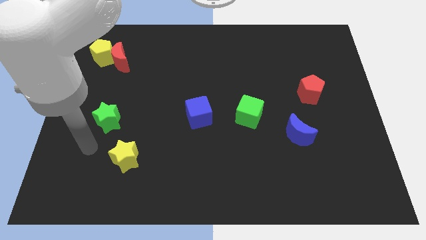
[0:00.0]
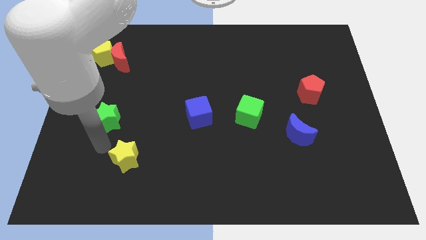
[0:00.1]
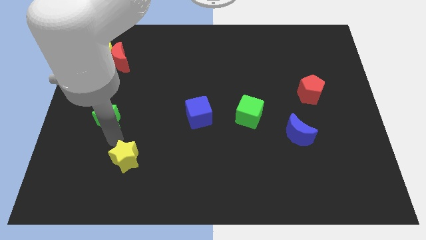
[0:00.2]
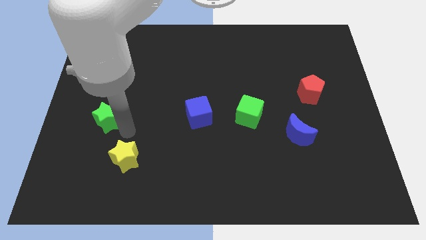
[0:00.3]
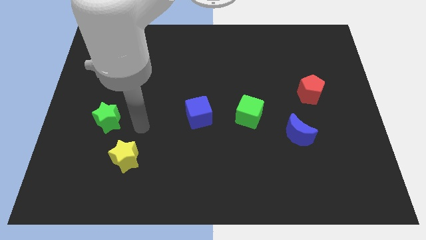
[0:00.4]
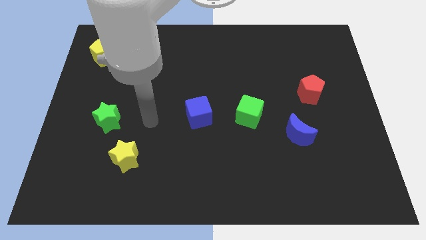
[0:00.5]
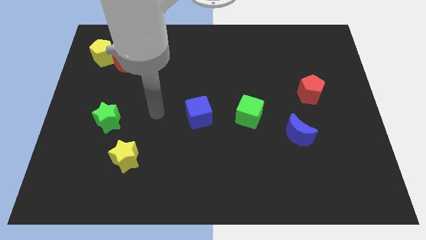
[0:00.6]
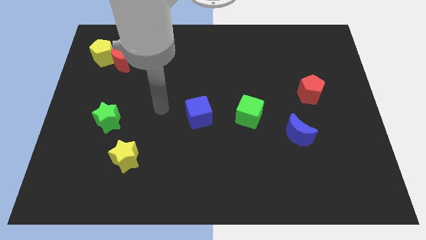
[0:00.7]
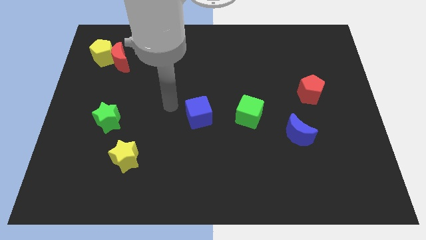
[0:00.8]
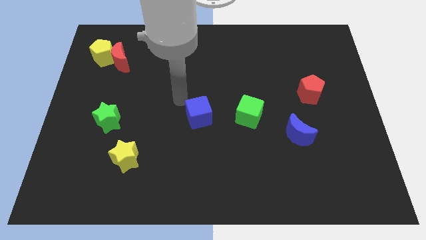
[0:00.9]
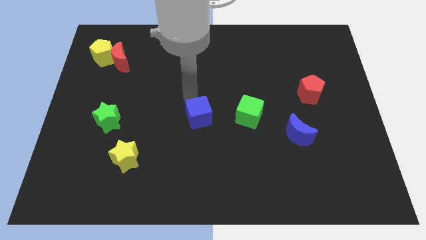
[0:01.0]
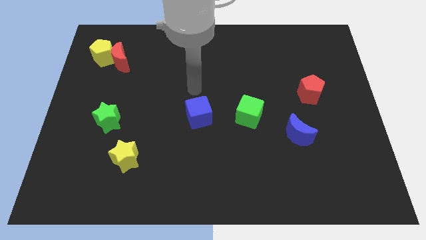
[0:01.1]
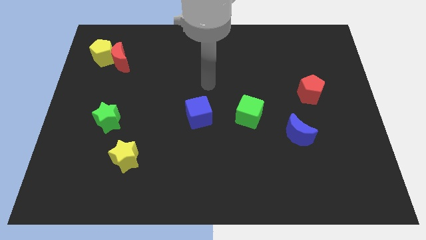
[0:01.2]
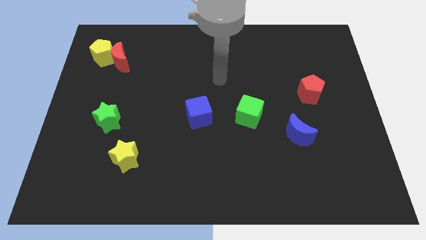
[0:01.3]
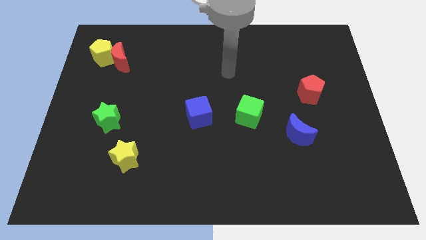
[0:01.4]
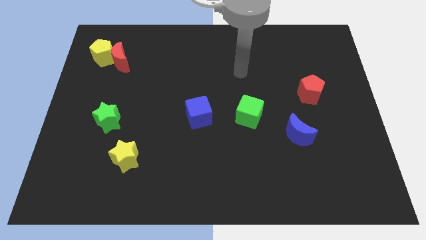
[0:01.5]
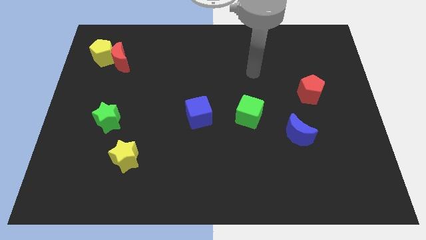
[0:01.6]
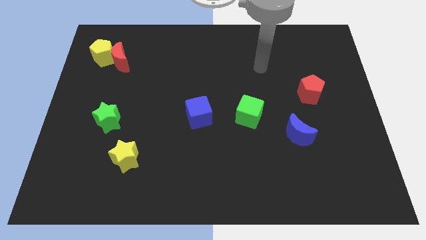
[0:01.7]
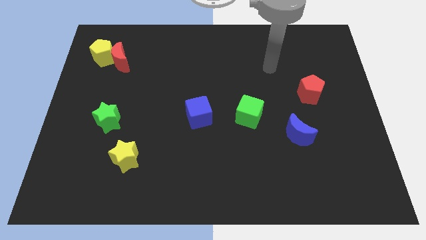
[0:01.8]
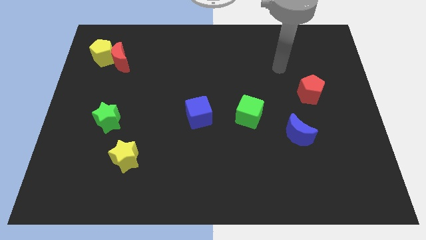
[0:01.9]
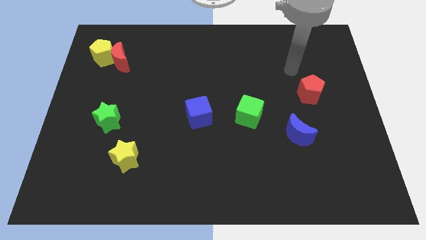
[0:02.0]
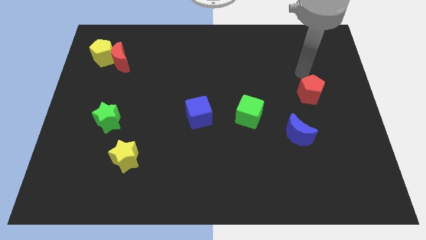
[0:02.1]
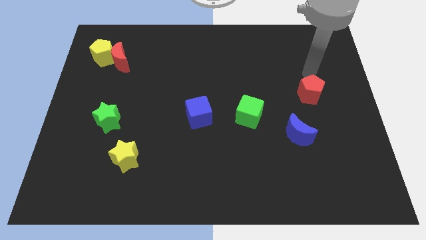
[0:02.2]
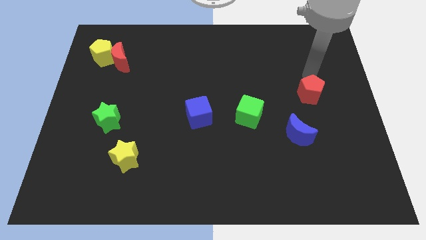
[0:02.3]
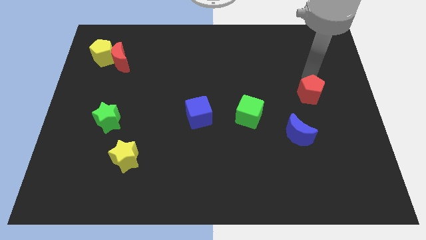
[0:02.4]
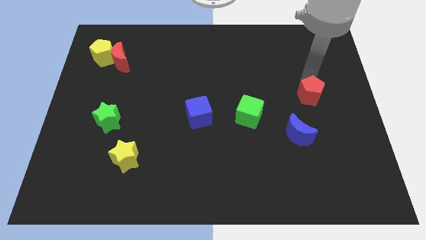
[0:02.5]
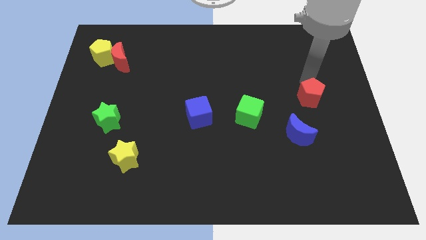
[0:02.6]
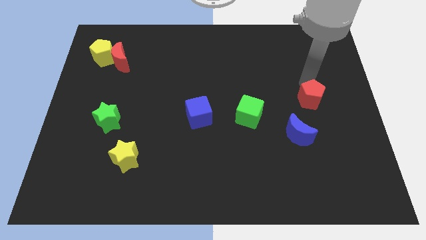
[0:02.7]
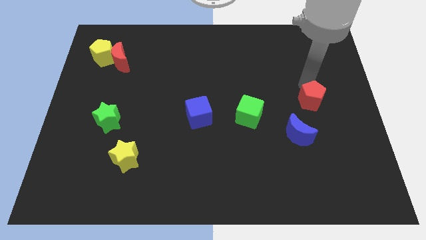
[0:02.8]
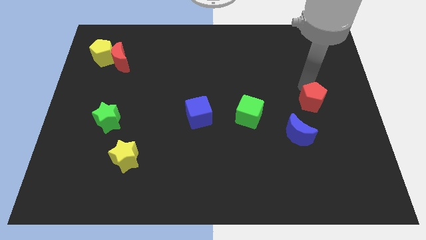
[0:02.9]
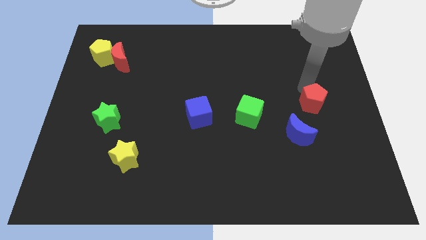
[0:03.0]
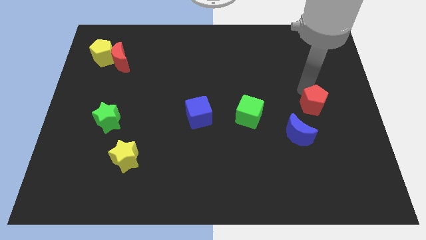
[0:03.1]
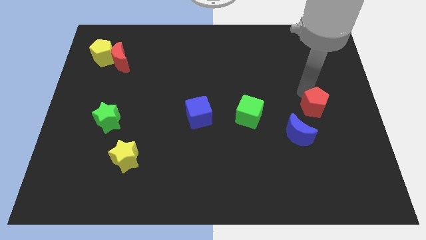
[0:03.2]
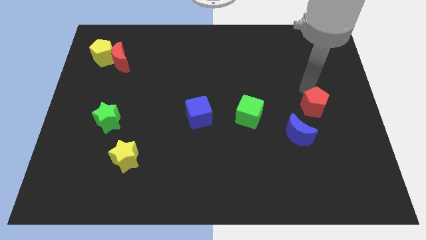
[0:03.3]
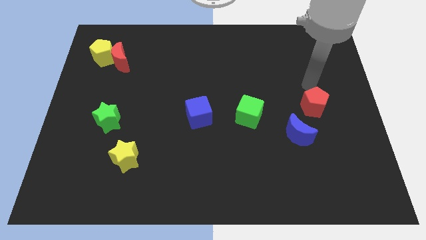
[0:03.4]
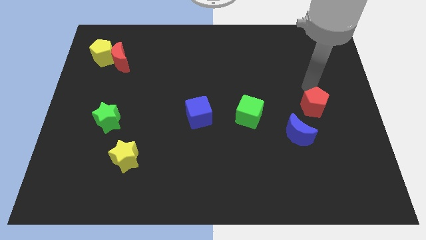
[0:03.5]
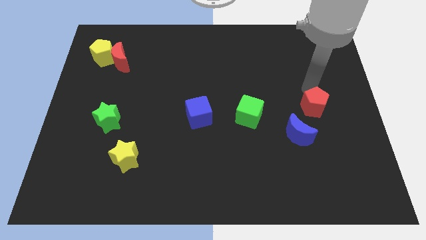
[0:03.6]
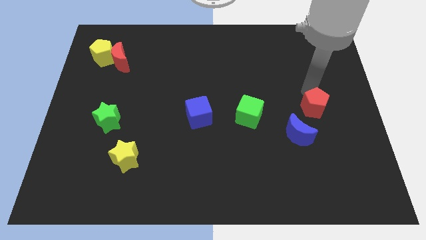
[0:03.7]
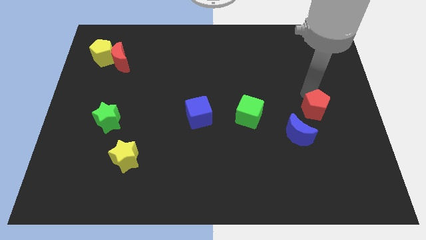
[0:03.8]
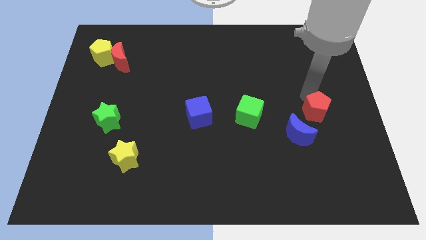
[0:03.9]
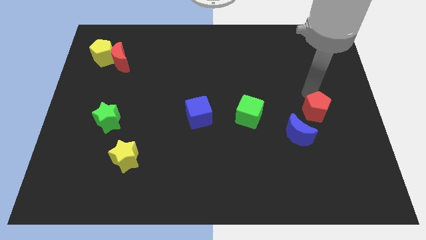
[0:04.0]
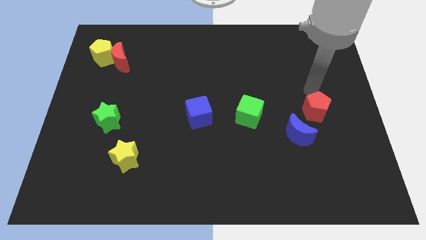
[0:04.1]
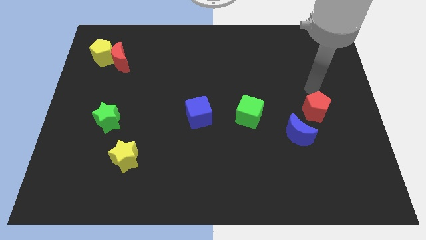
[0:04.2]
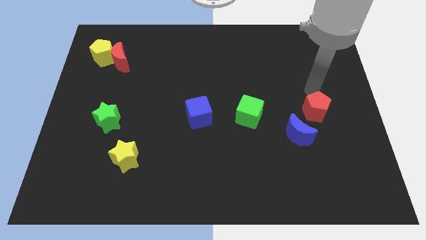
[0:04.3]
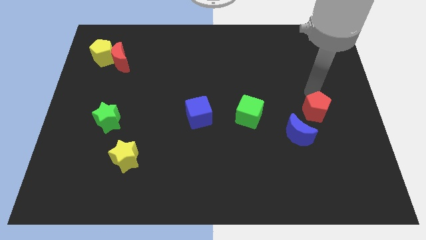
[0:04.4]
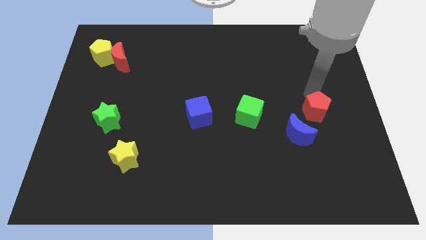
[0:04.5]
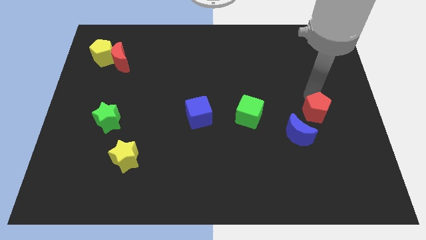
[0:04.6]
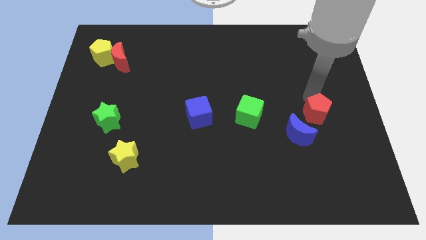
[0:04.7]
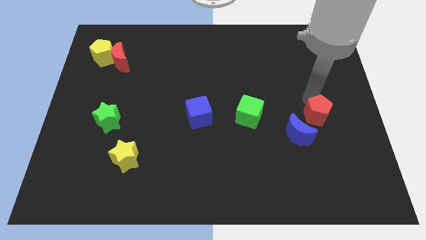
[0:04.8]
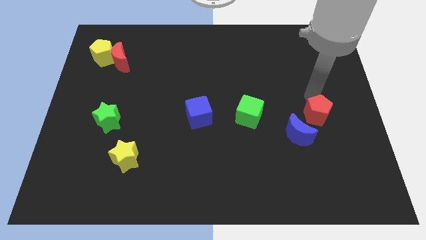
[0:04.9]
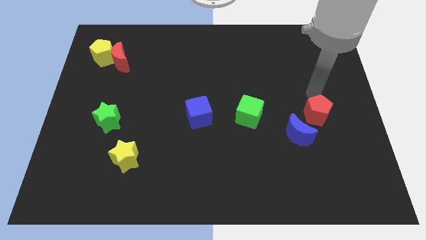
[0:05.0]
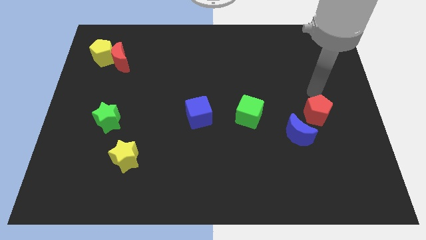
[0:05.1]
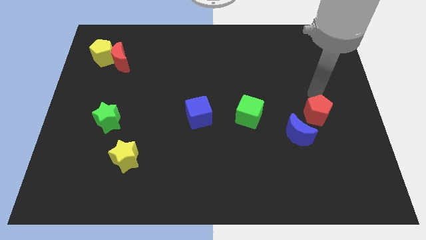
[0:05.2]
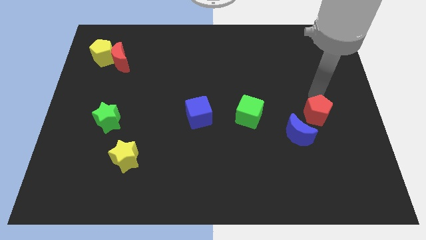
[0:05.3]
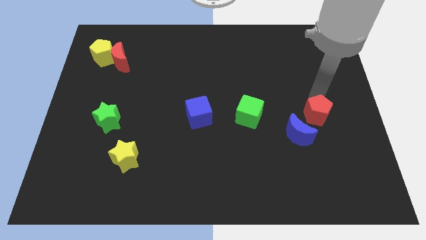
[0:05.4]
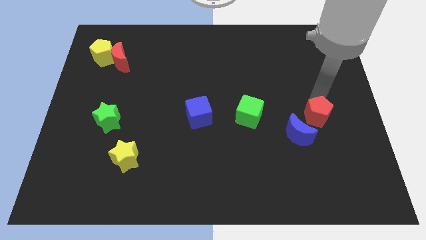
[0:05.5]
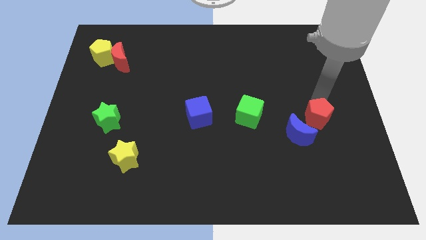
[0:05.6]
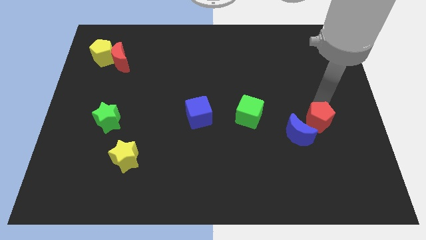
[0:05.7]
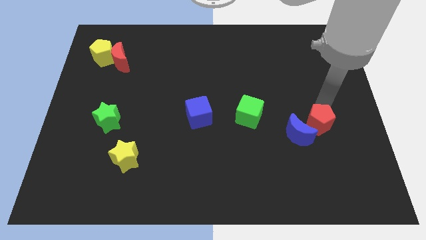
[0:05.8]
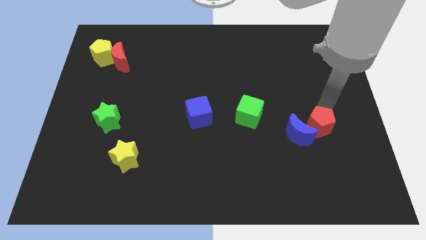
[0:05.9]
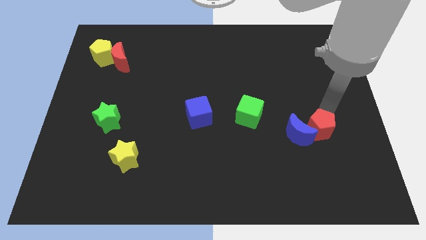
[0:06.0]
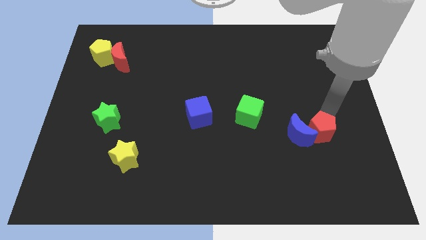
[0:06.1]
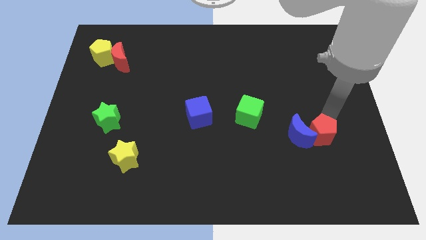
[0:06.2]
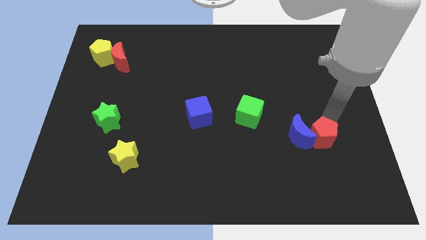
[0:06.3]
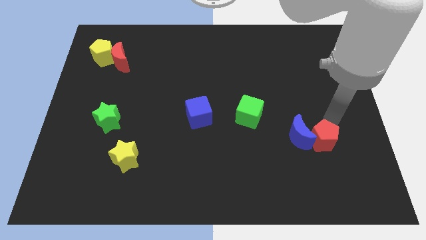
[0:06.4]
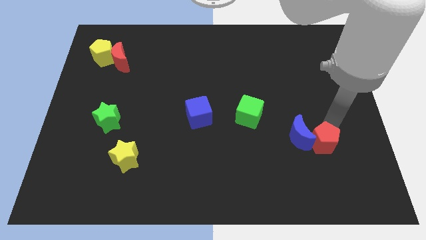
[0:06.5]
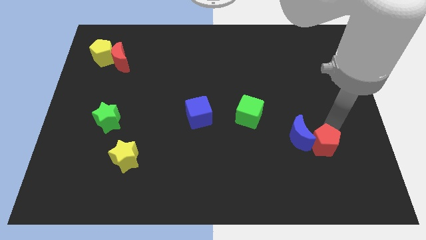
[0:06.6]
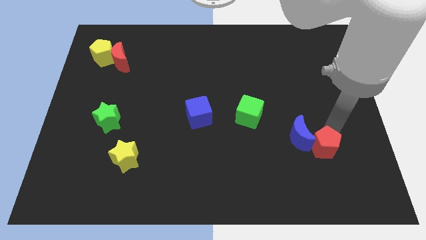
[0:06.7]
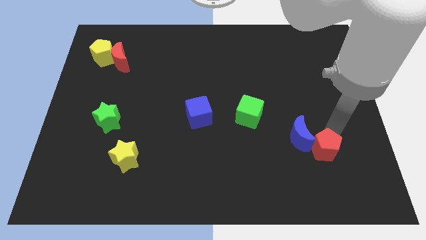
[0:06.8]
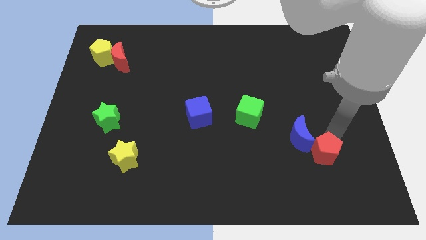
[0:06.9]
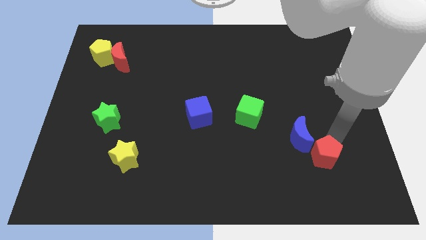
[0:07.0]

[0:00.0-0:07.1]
push the red pentagon to the bottom side of the blue moon
